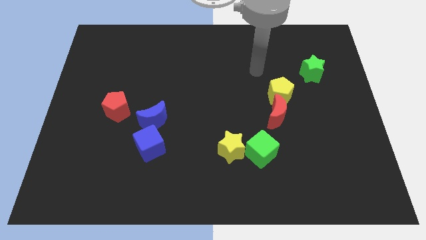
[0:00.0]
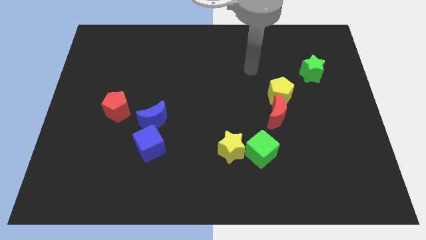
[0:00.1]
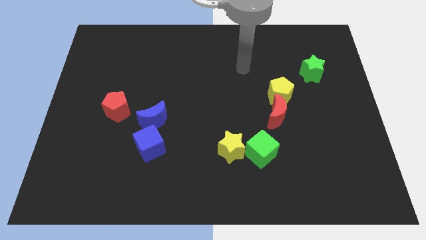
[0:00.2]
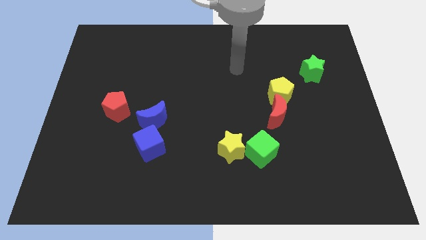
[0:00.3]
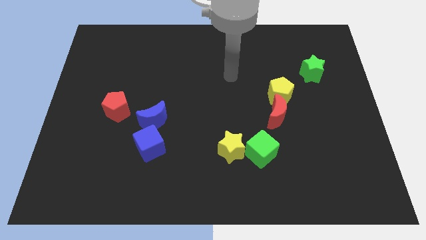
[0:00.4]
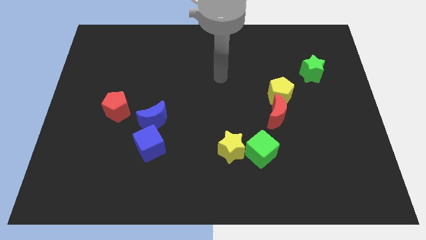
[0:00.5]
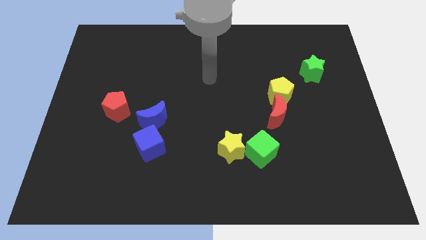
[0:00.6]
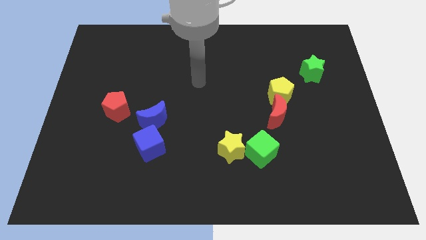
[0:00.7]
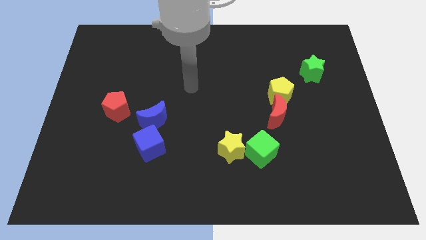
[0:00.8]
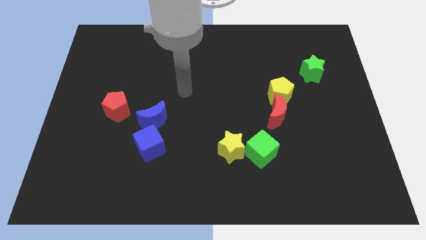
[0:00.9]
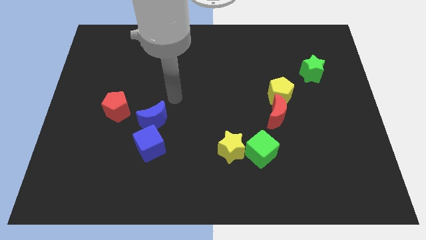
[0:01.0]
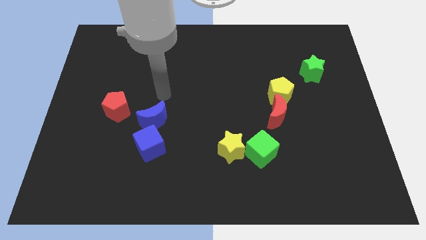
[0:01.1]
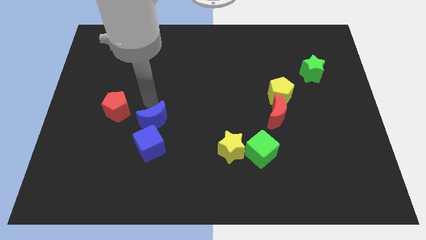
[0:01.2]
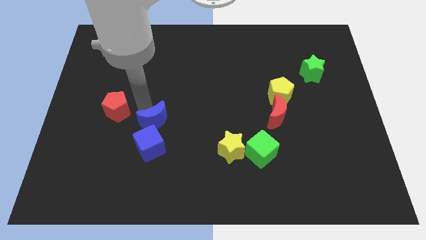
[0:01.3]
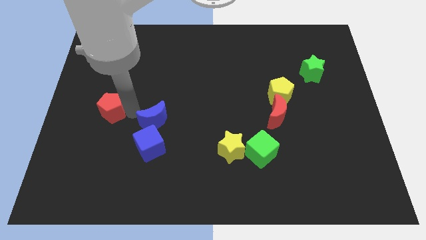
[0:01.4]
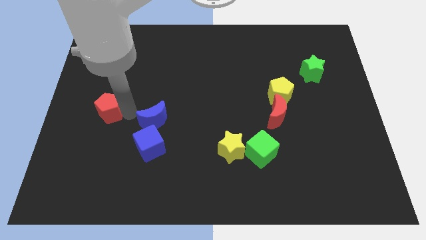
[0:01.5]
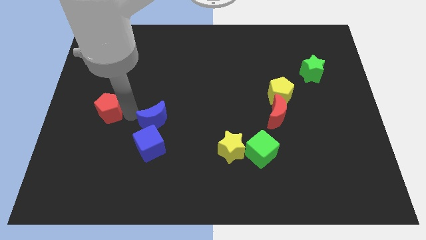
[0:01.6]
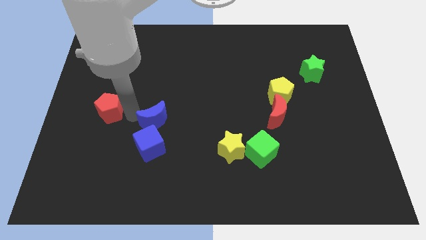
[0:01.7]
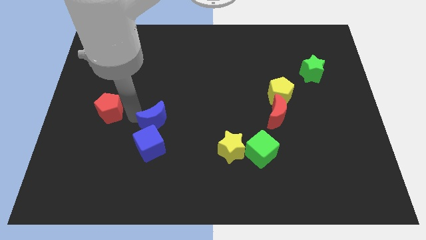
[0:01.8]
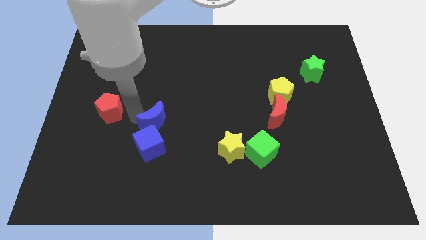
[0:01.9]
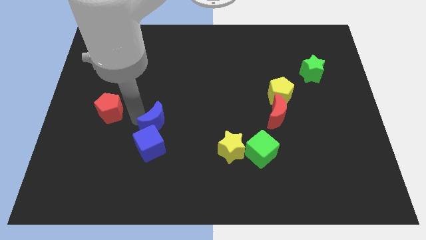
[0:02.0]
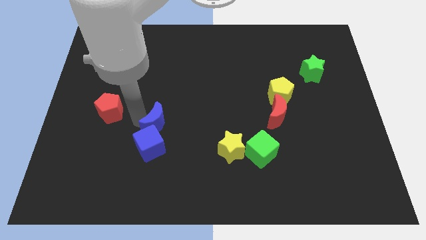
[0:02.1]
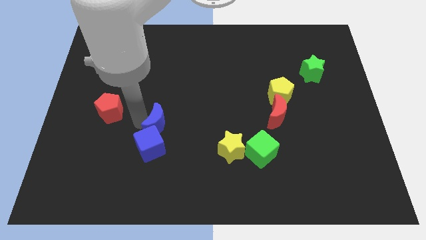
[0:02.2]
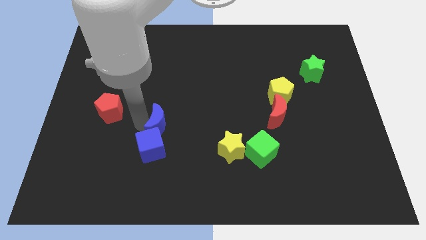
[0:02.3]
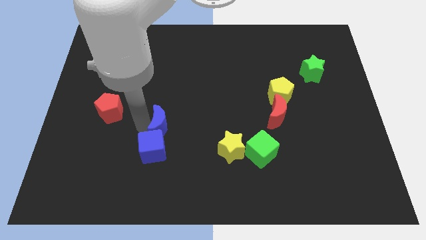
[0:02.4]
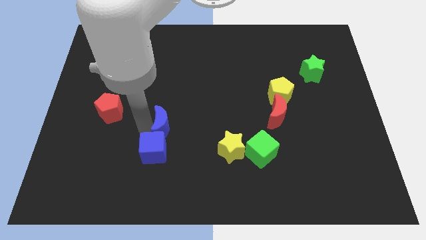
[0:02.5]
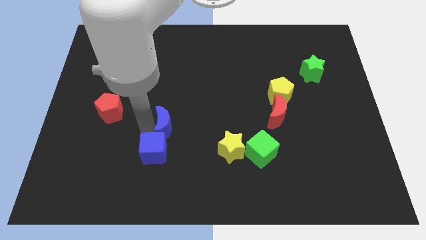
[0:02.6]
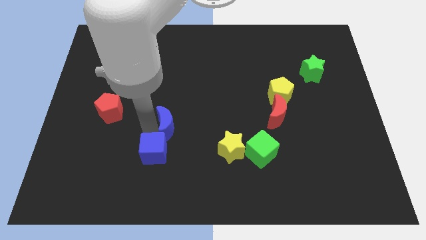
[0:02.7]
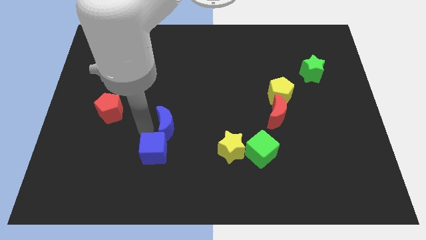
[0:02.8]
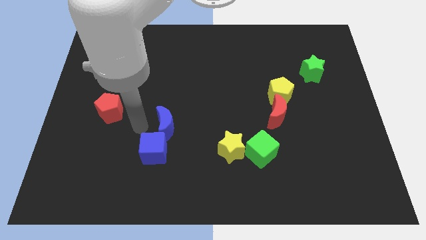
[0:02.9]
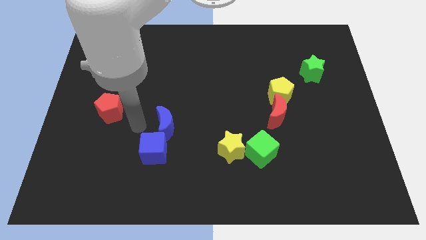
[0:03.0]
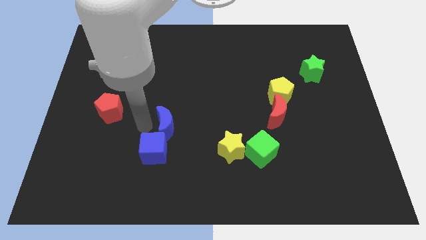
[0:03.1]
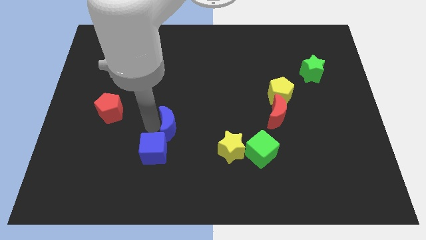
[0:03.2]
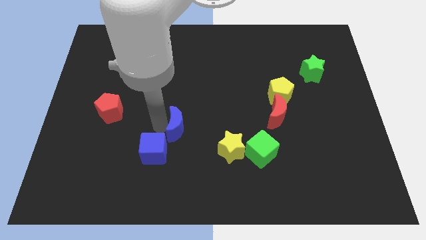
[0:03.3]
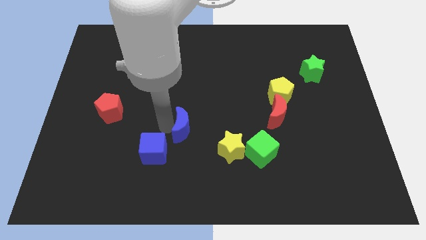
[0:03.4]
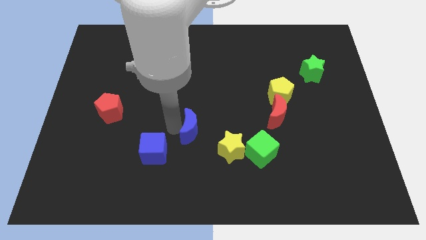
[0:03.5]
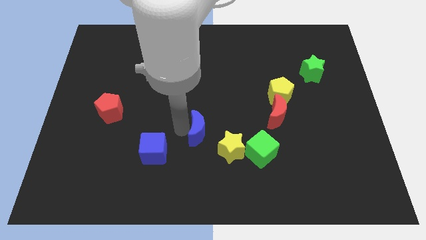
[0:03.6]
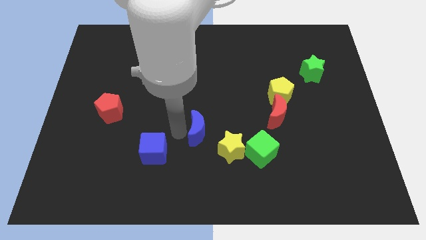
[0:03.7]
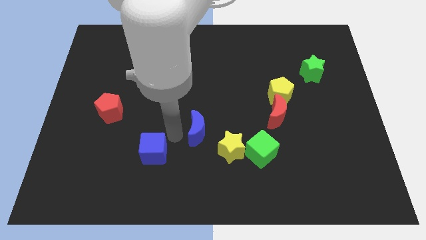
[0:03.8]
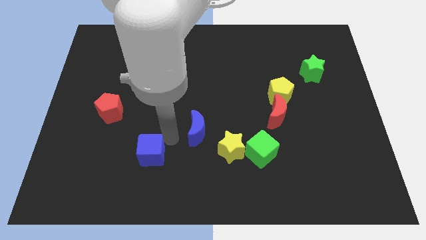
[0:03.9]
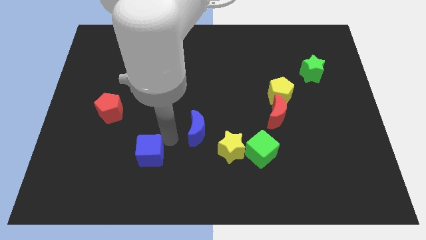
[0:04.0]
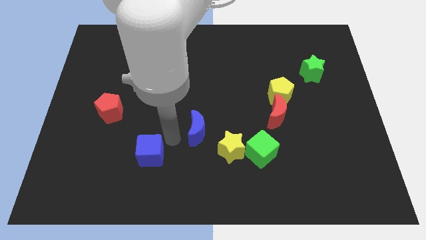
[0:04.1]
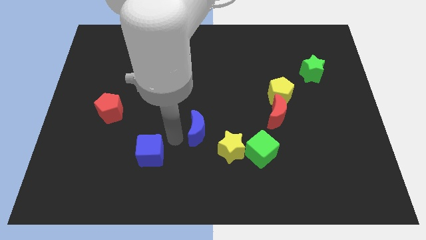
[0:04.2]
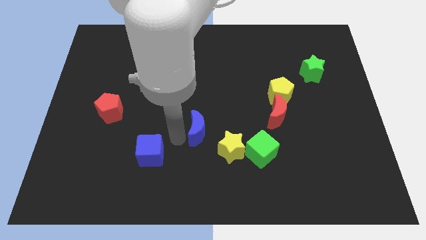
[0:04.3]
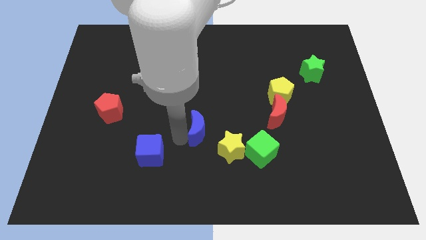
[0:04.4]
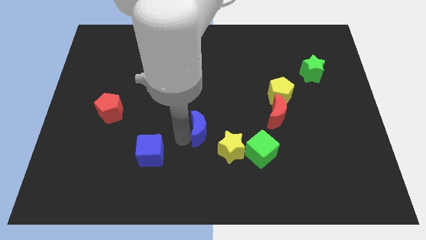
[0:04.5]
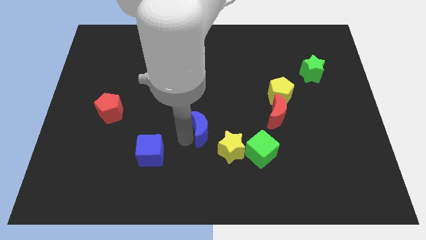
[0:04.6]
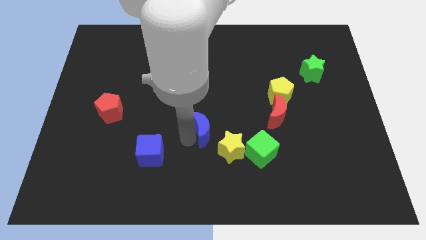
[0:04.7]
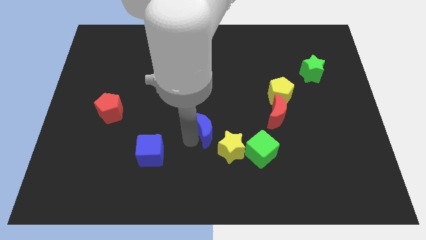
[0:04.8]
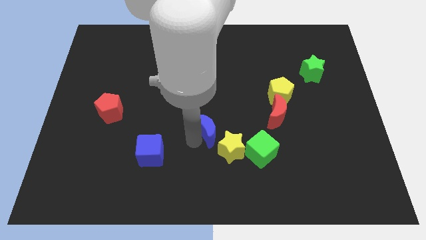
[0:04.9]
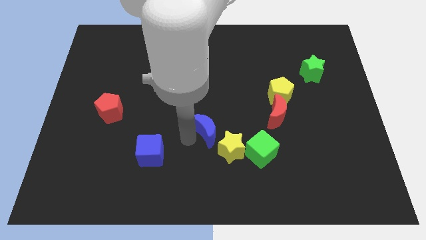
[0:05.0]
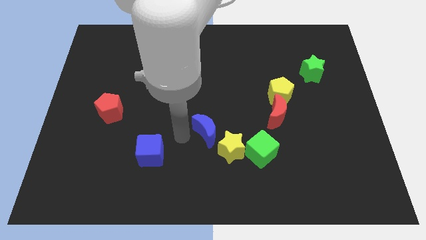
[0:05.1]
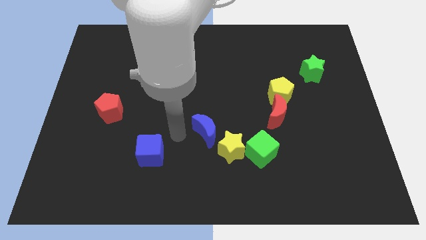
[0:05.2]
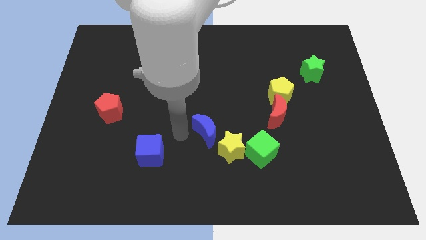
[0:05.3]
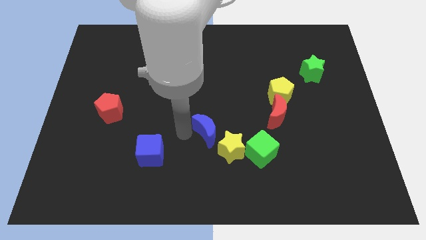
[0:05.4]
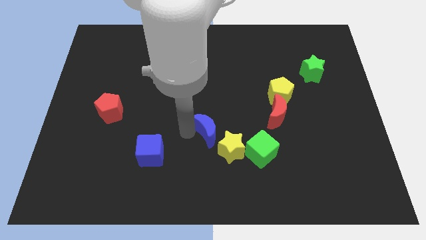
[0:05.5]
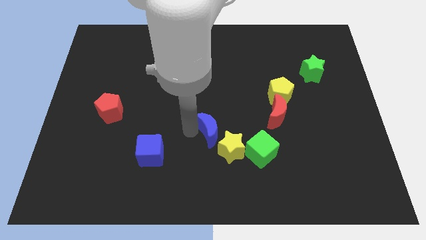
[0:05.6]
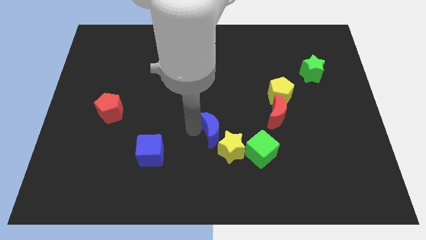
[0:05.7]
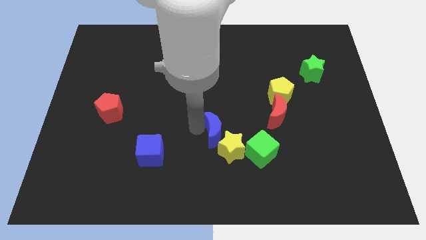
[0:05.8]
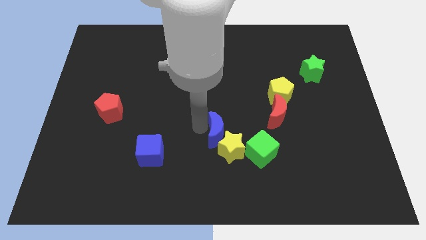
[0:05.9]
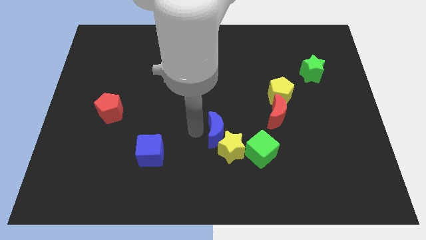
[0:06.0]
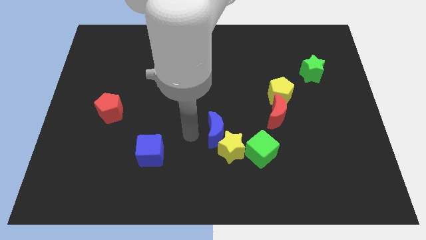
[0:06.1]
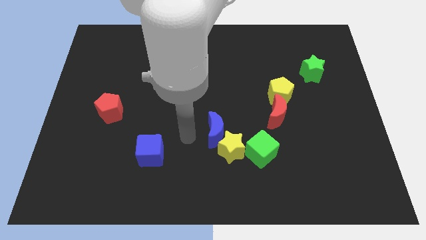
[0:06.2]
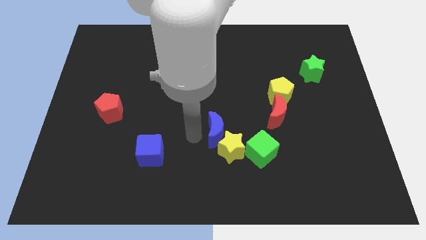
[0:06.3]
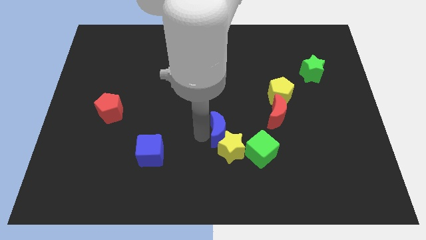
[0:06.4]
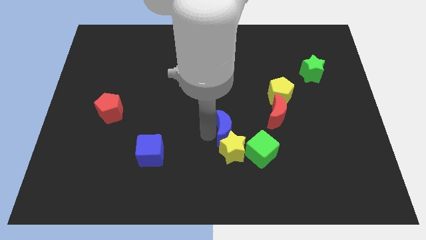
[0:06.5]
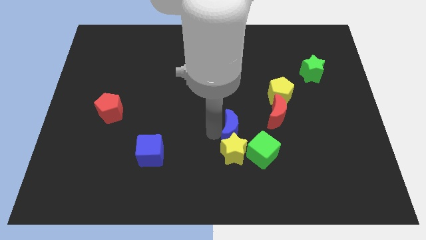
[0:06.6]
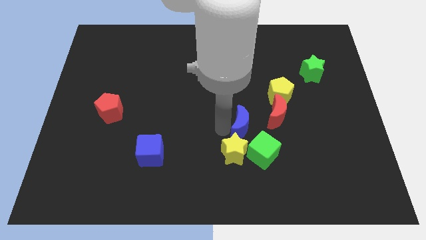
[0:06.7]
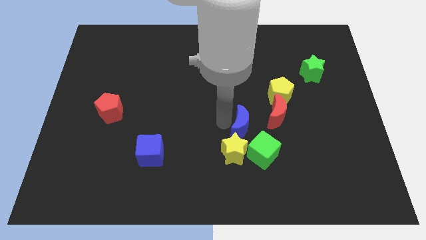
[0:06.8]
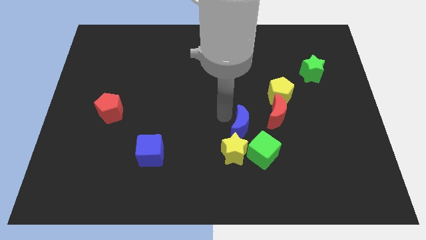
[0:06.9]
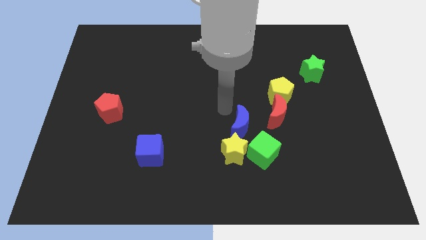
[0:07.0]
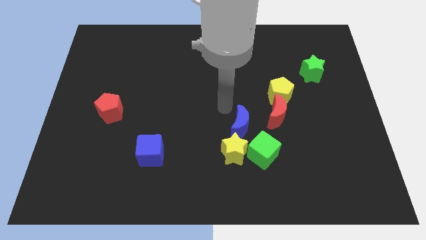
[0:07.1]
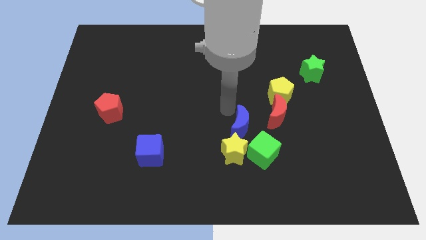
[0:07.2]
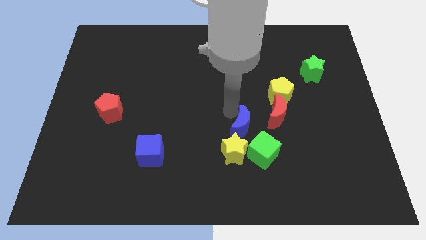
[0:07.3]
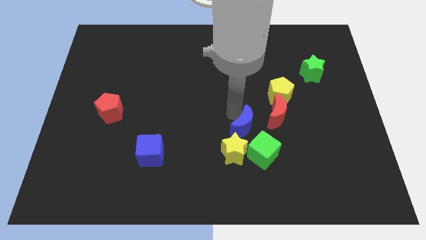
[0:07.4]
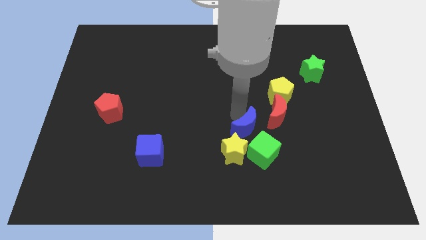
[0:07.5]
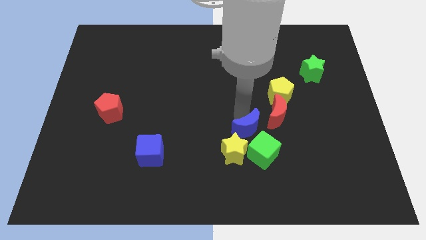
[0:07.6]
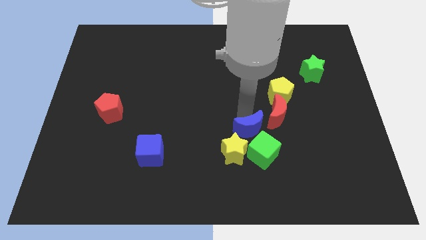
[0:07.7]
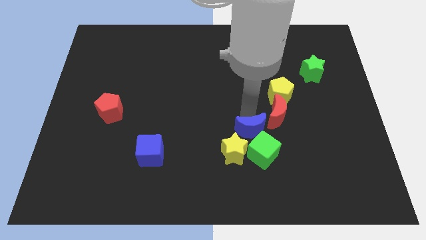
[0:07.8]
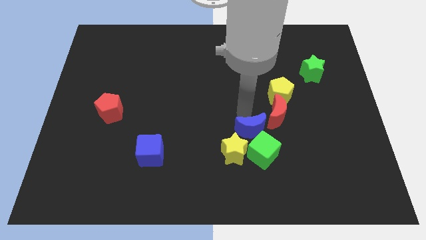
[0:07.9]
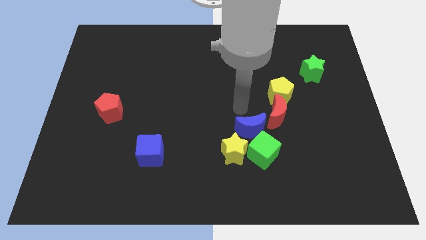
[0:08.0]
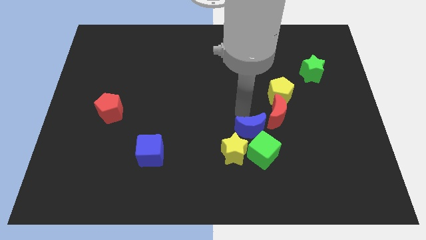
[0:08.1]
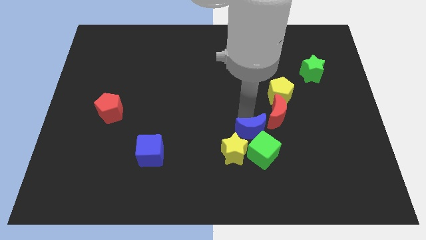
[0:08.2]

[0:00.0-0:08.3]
push the blue moon to the green cube
